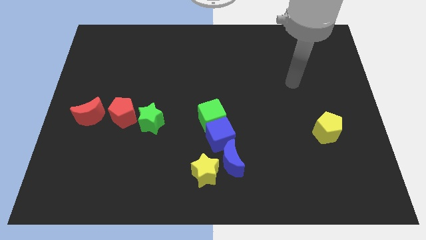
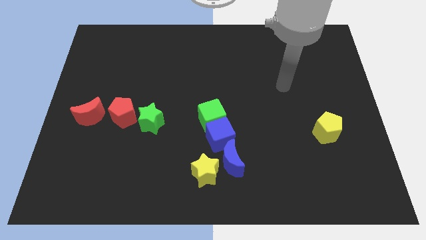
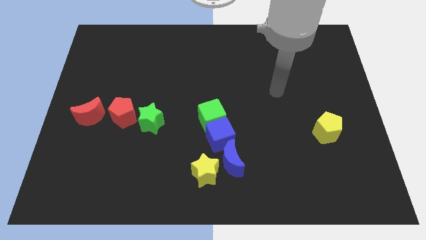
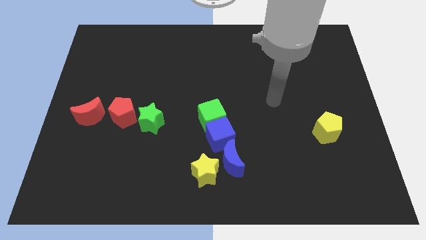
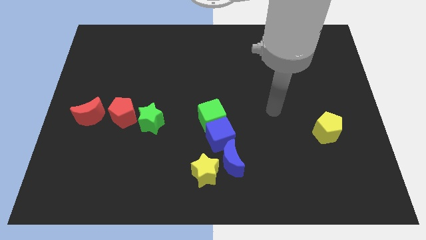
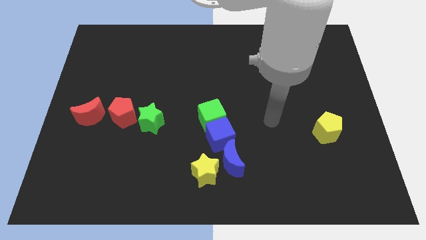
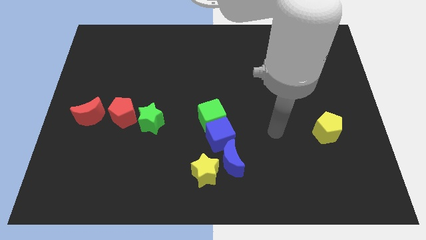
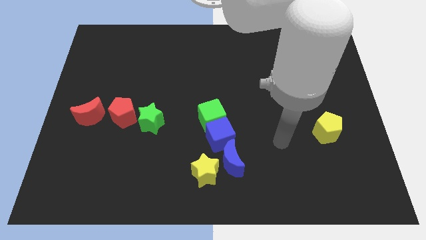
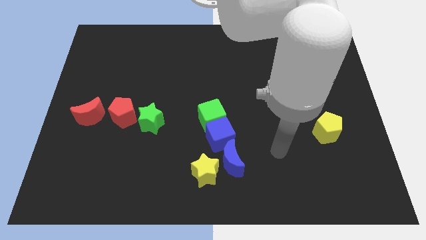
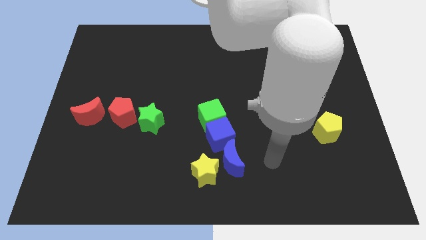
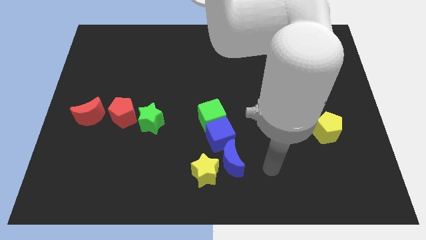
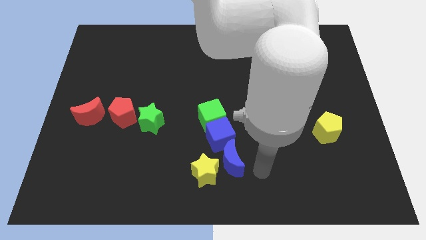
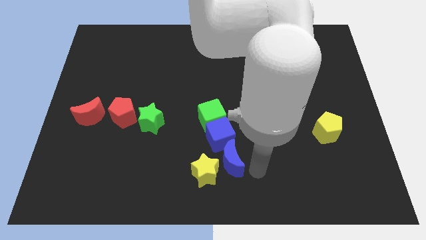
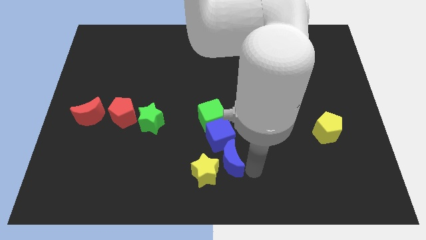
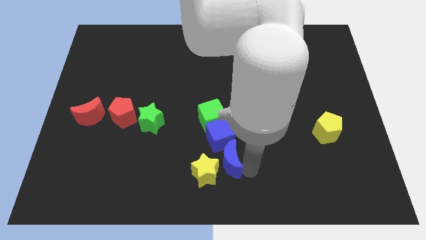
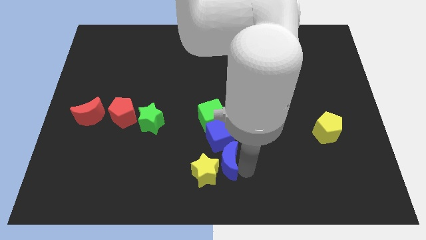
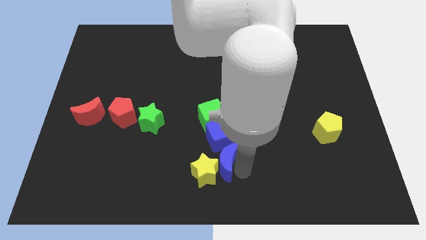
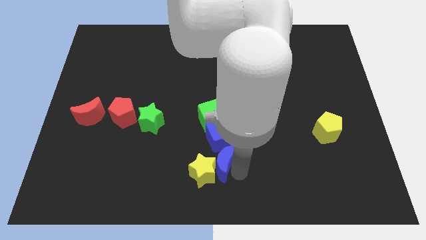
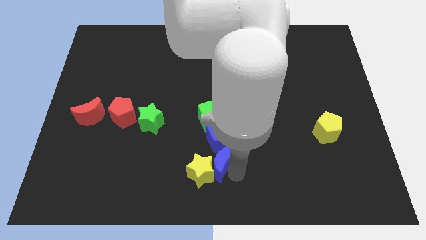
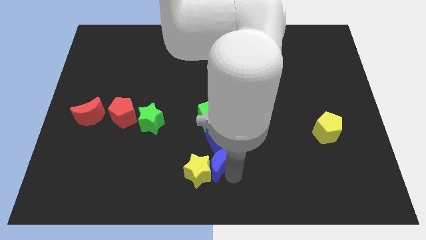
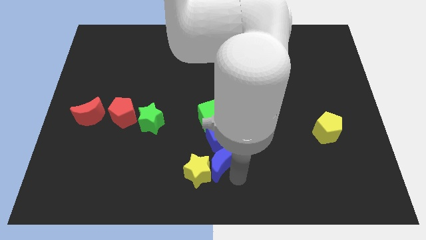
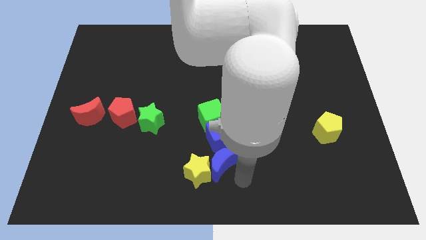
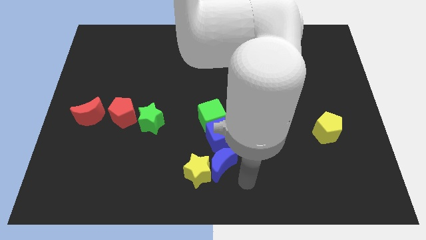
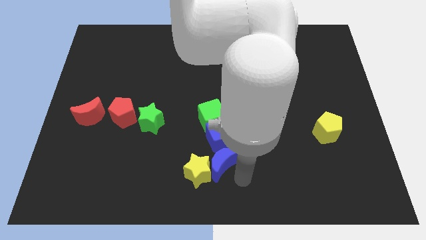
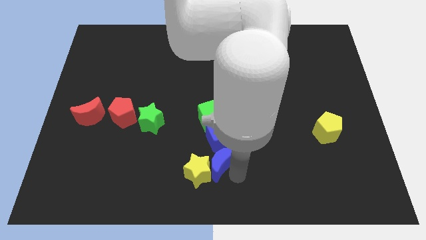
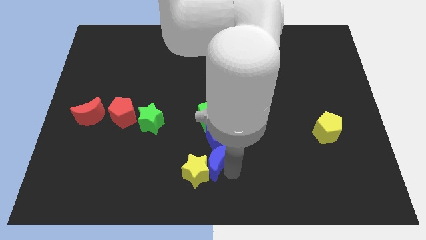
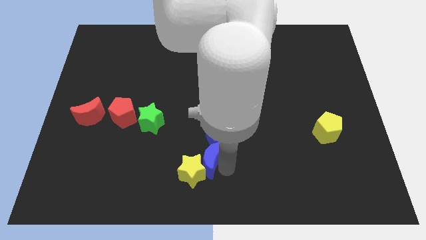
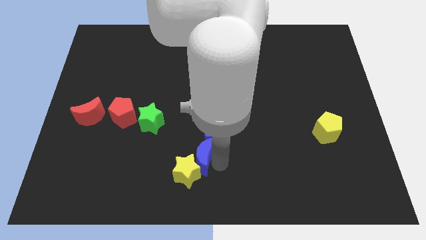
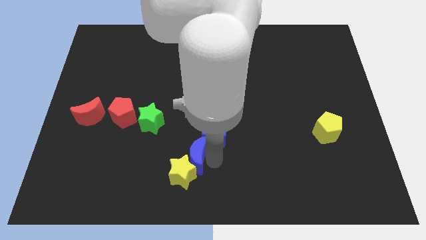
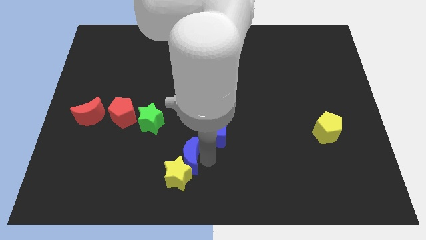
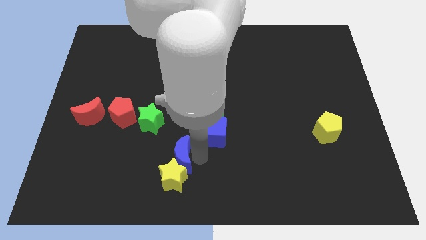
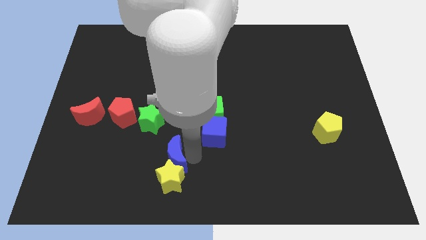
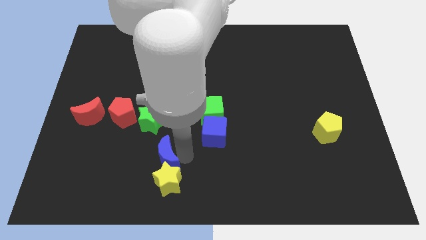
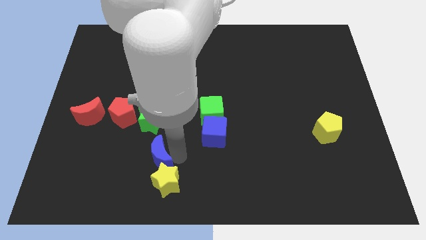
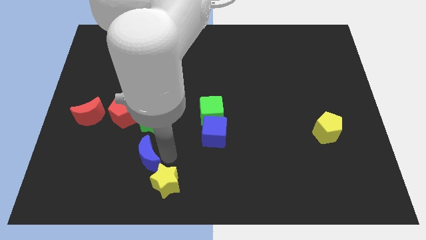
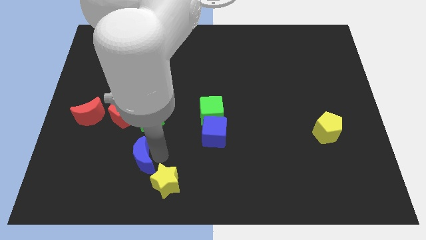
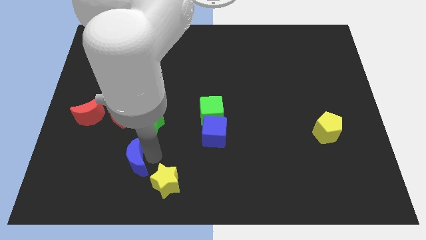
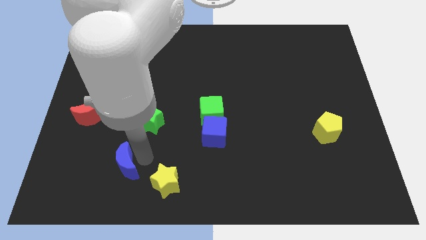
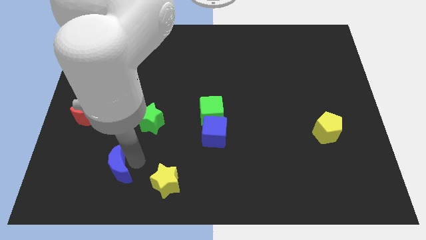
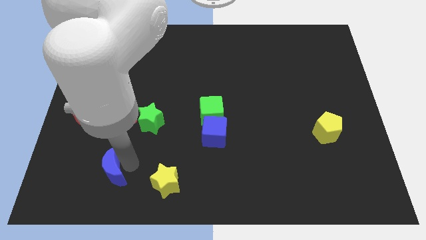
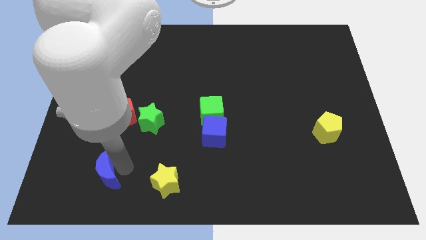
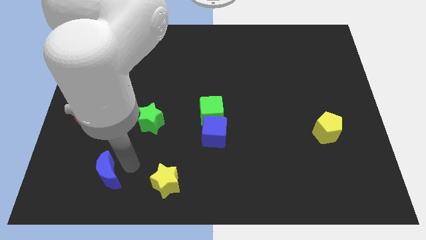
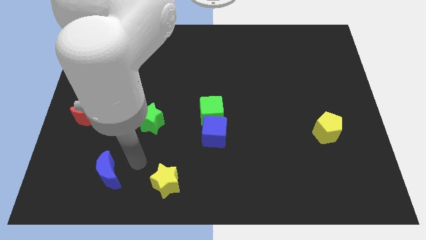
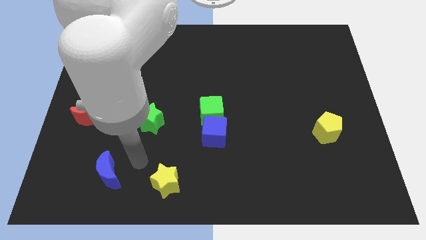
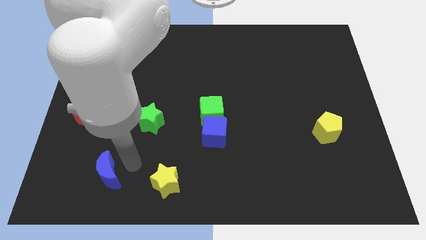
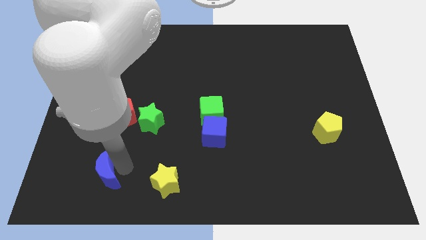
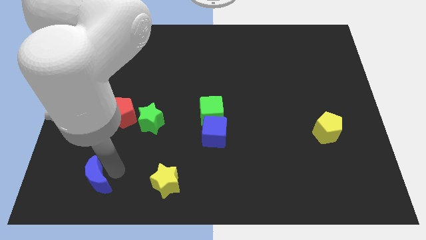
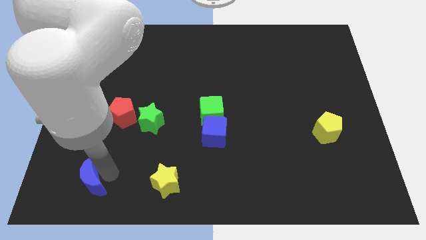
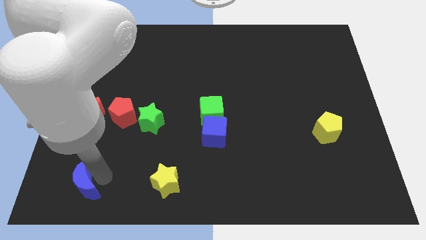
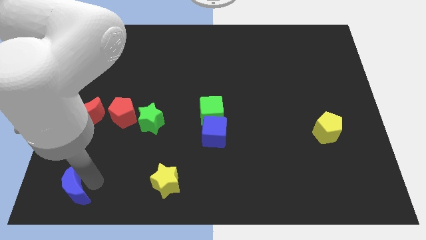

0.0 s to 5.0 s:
slide the blue moon to the bottom left corner

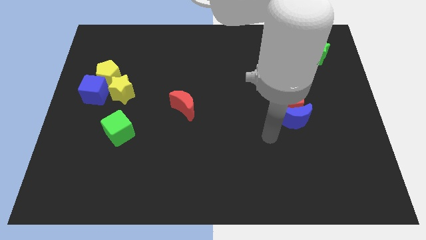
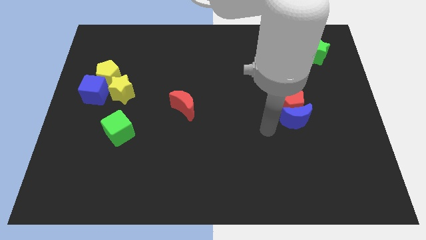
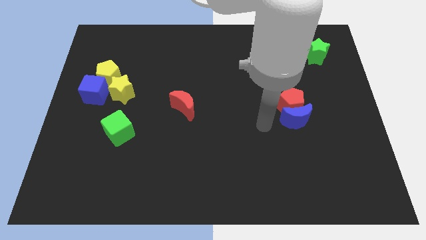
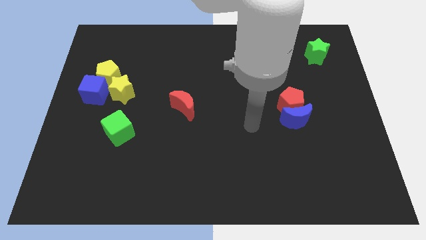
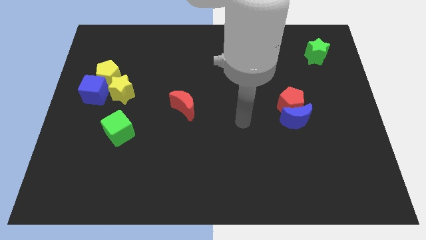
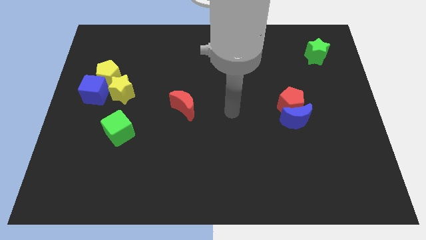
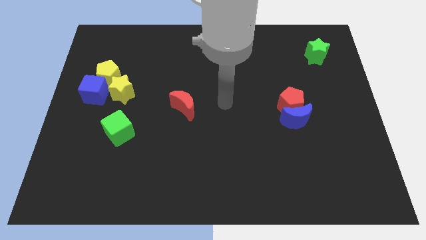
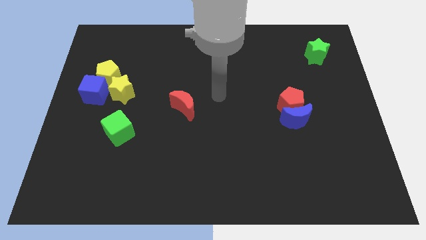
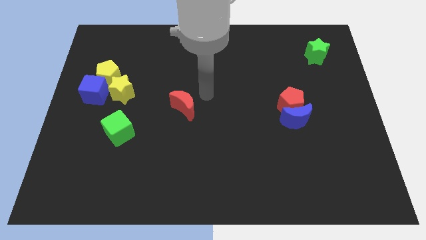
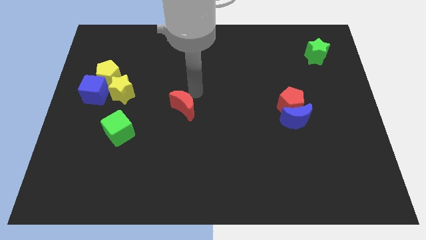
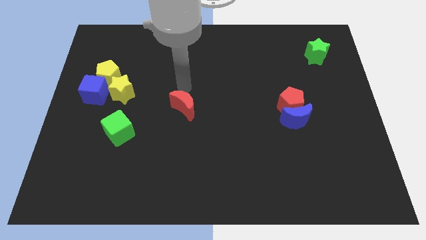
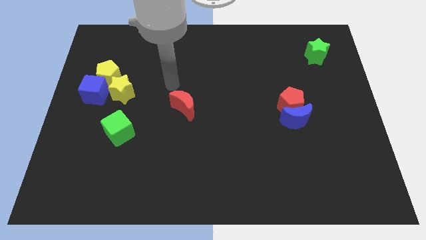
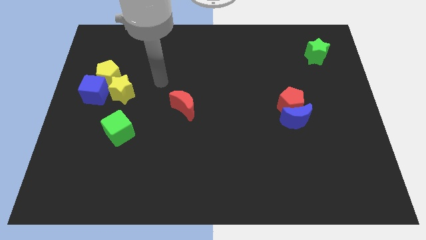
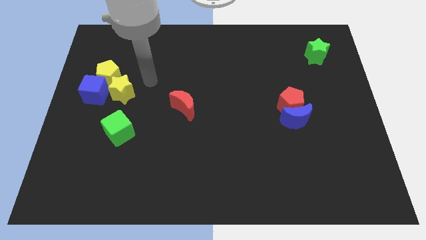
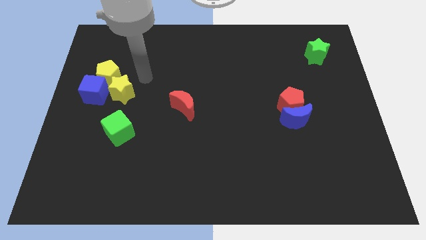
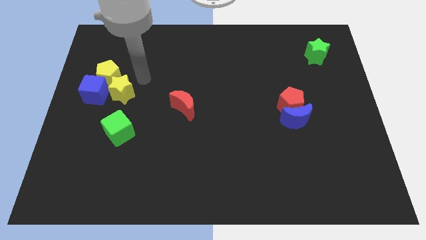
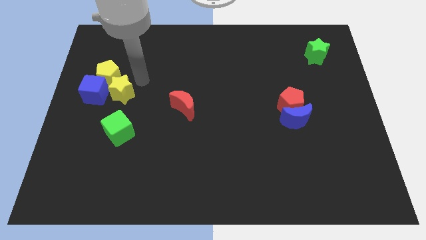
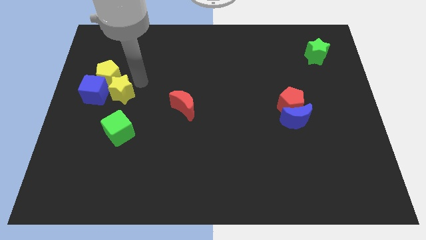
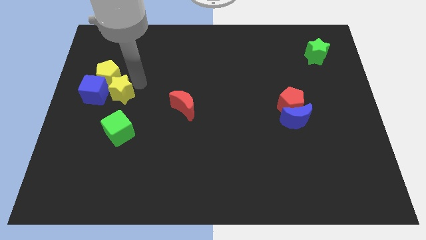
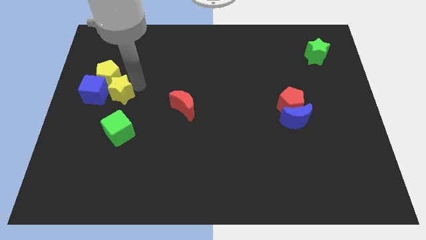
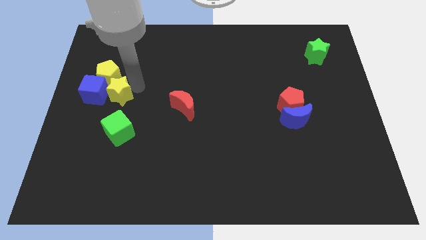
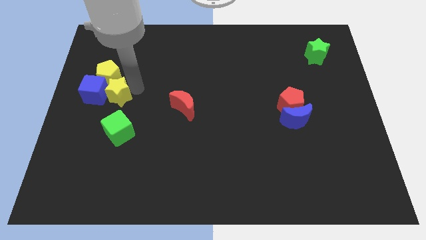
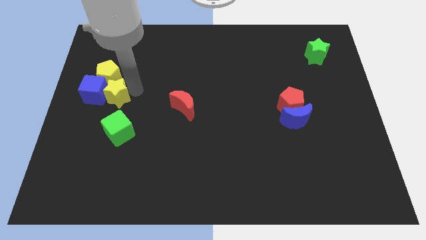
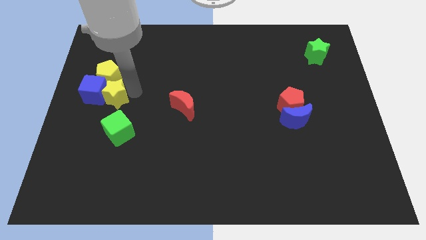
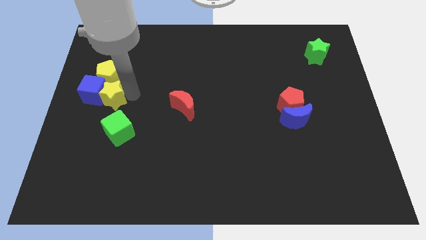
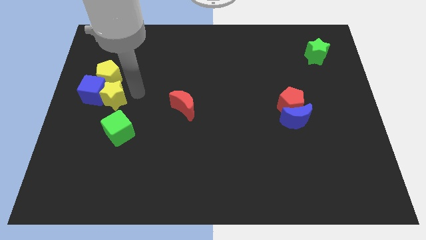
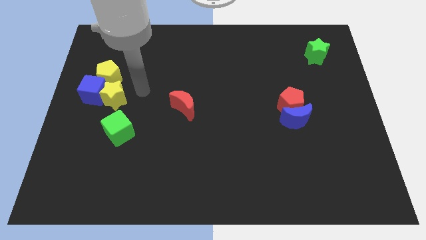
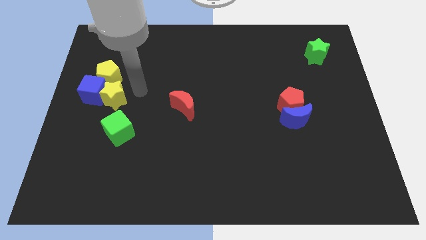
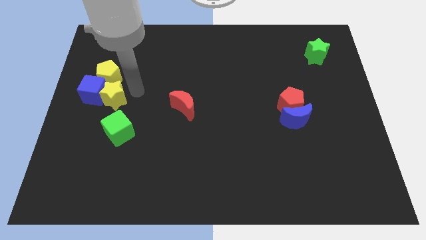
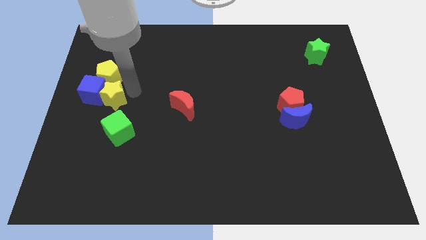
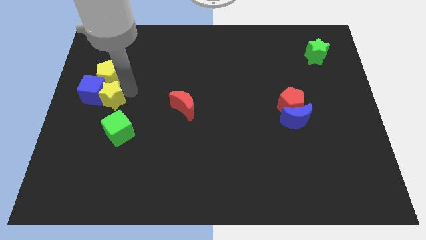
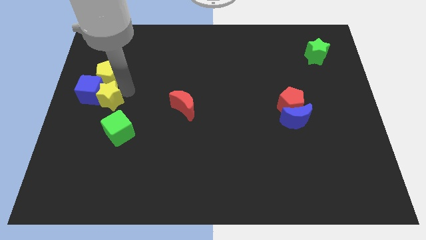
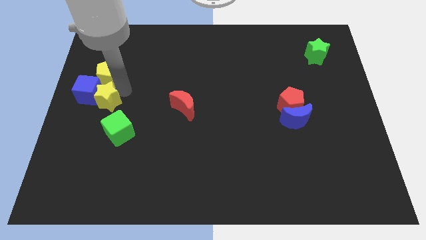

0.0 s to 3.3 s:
move the yellow star to the center left
